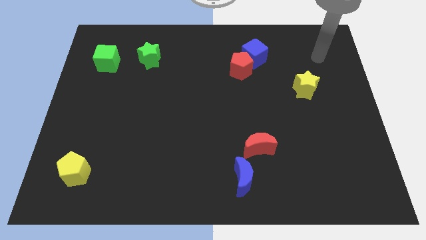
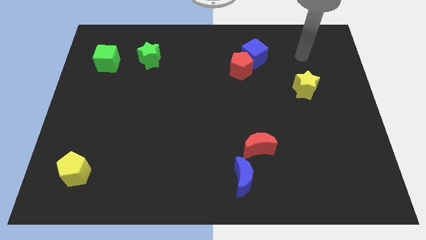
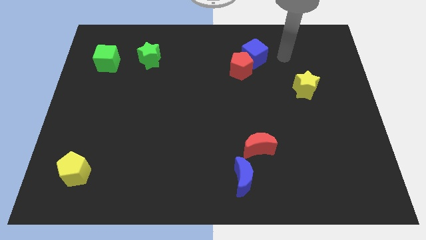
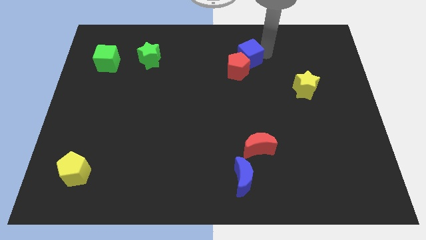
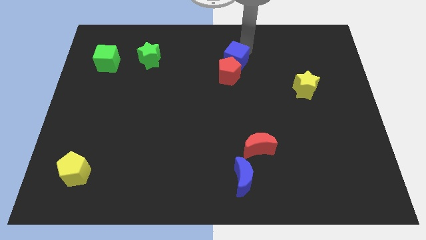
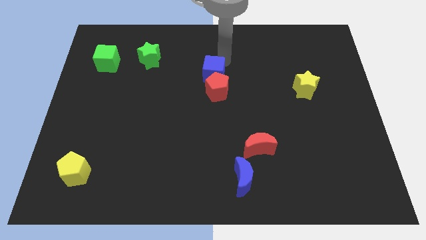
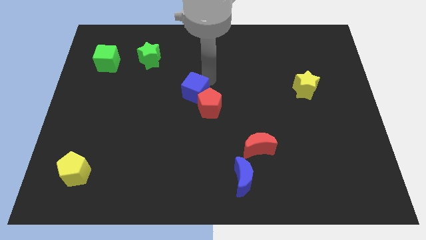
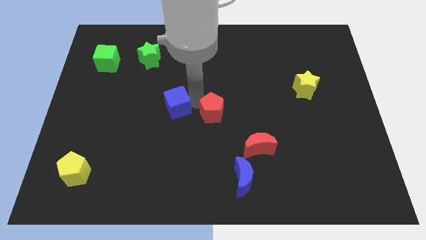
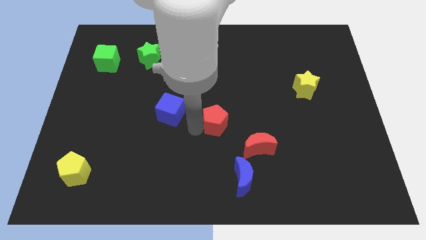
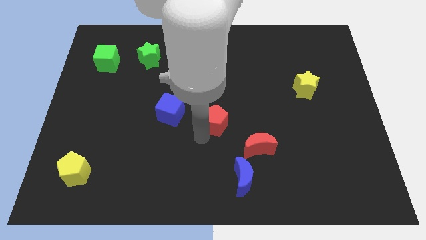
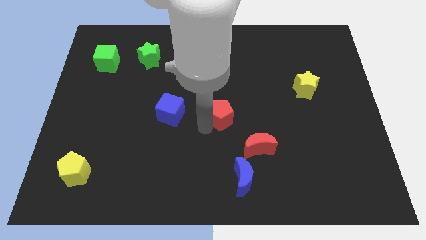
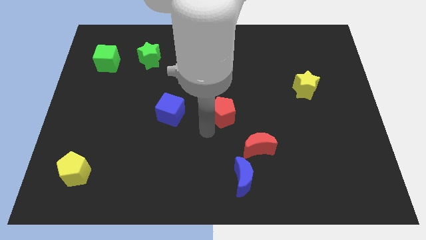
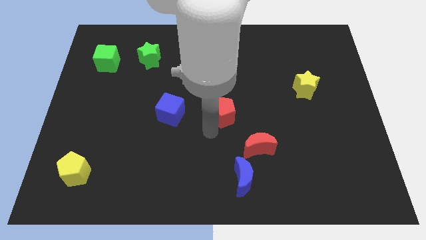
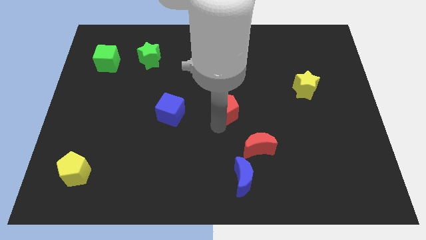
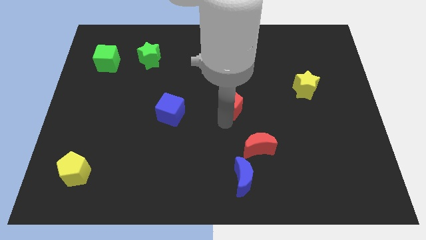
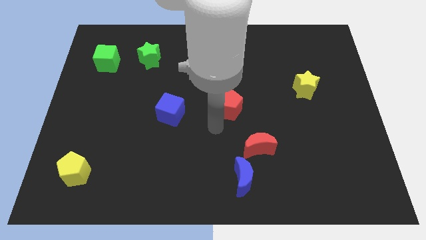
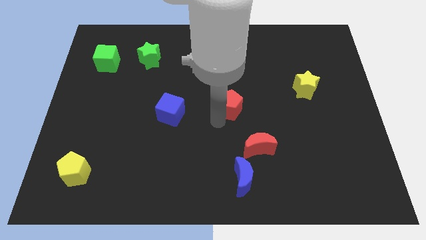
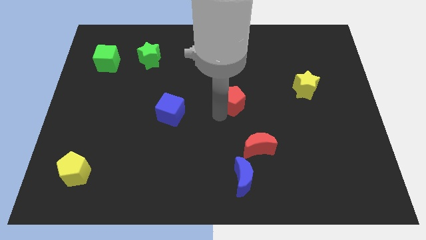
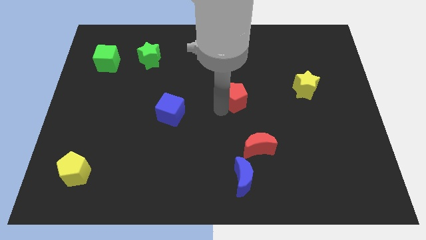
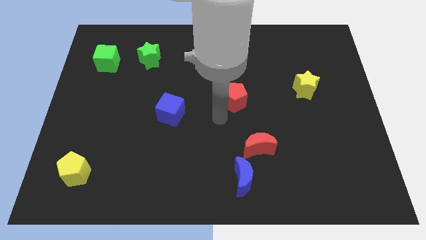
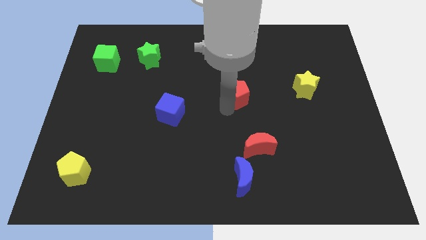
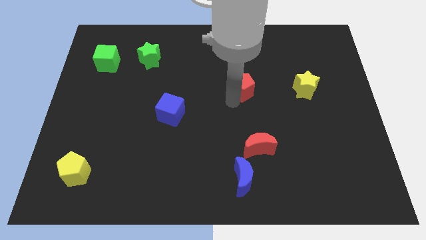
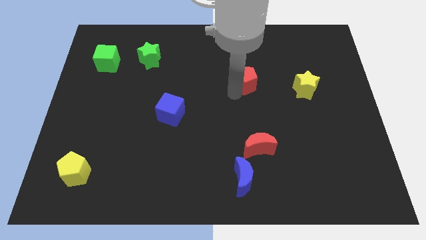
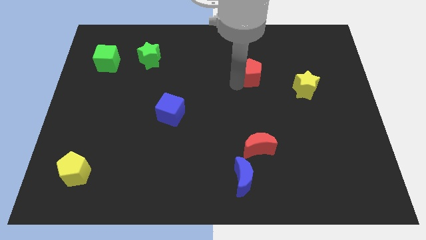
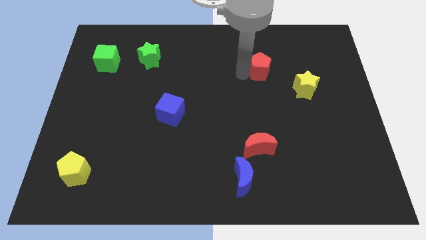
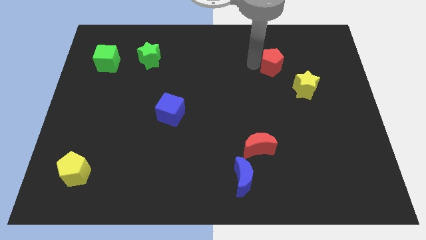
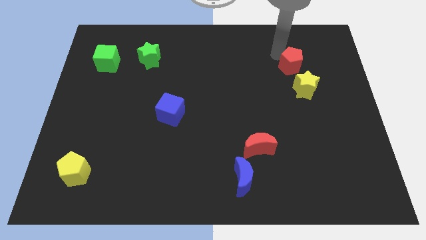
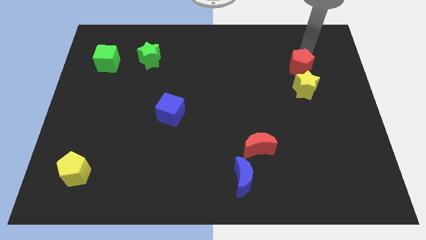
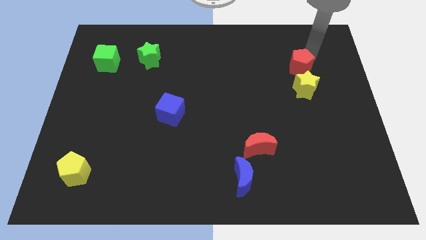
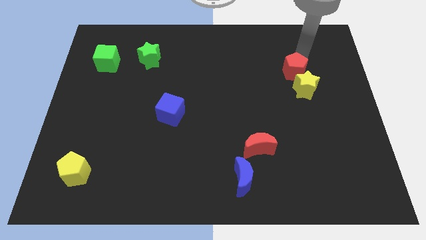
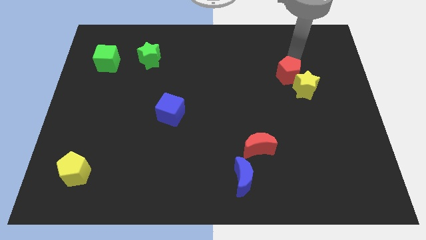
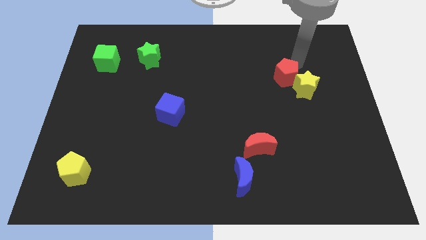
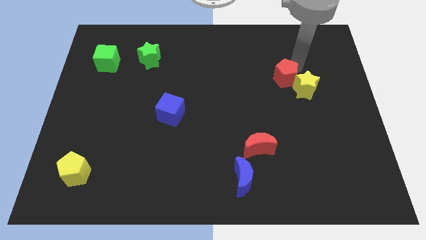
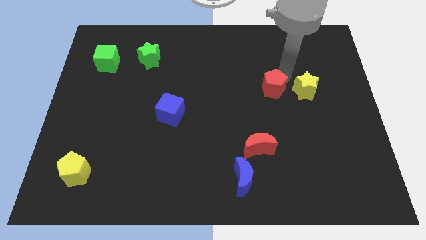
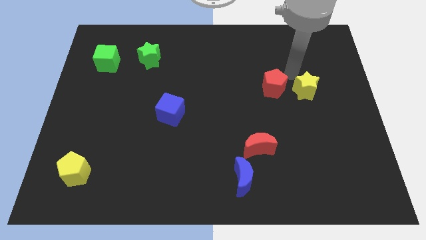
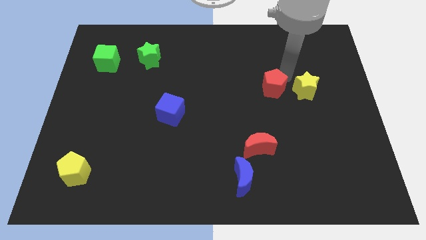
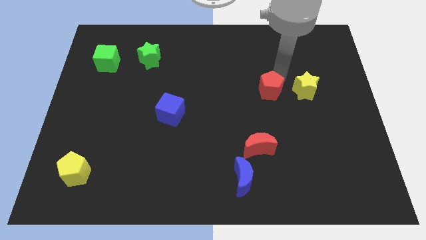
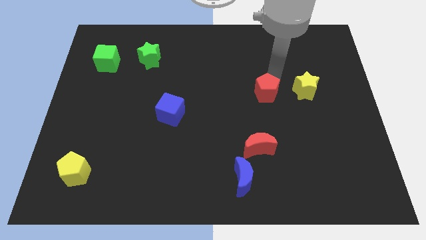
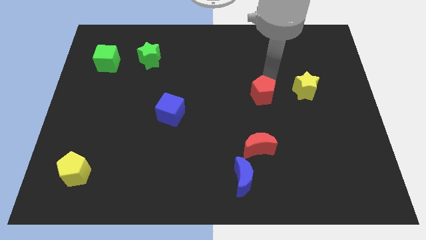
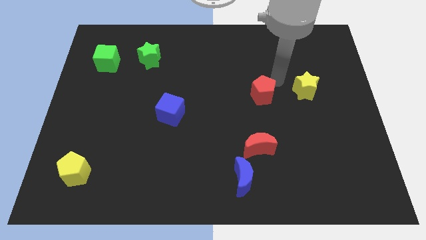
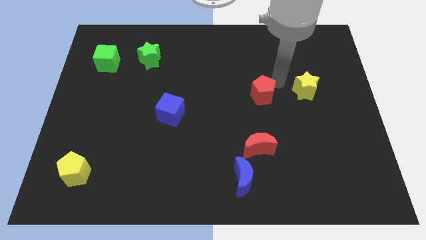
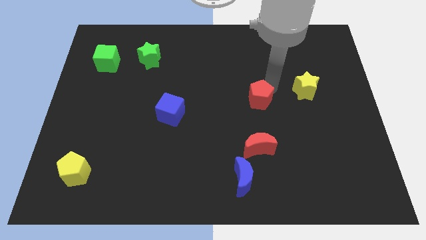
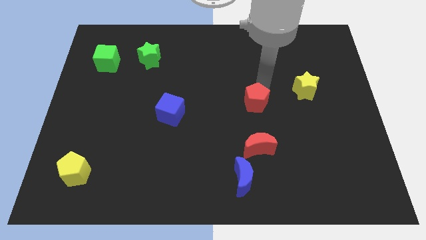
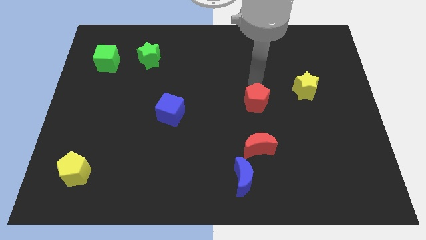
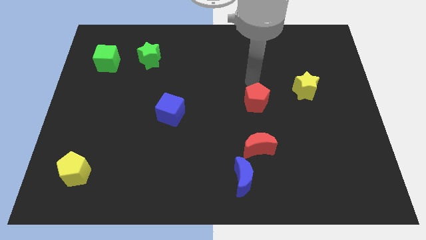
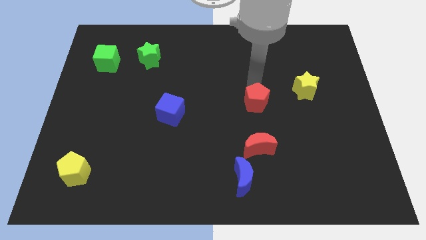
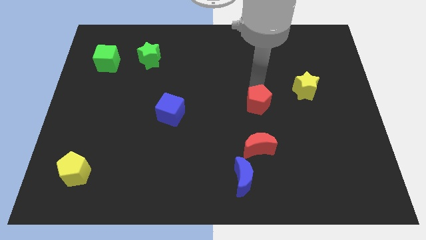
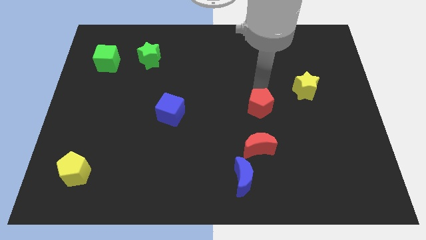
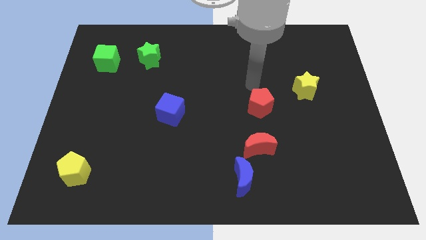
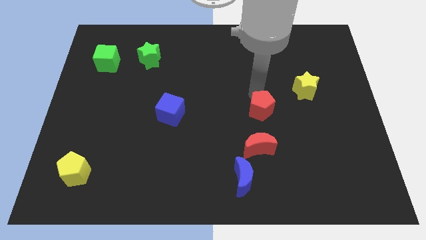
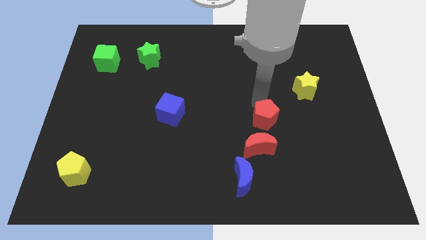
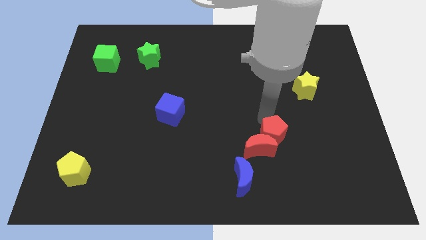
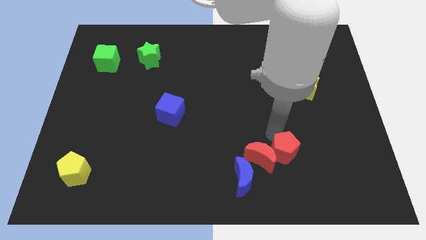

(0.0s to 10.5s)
push the red pentagon to the bottom right of the red moon

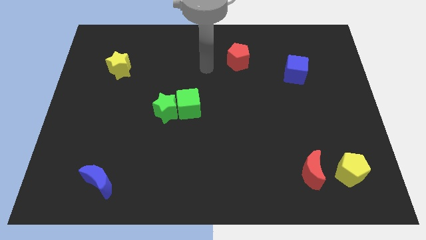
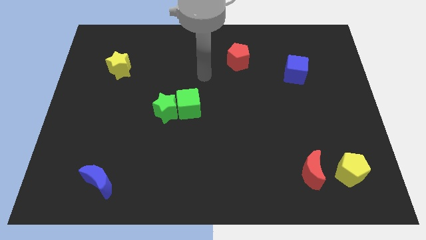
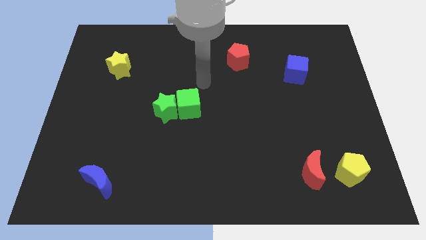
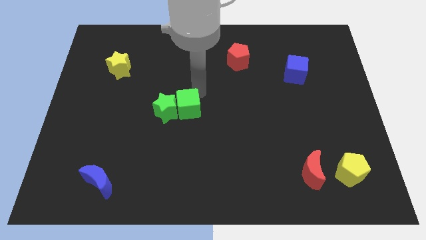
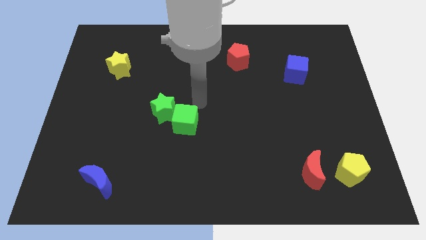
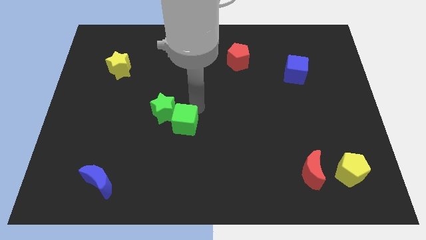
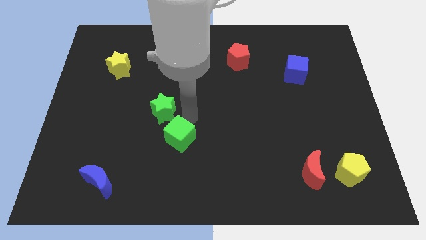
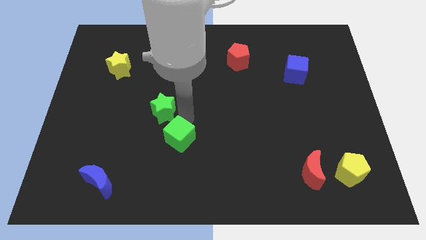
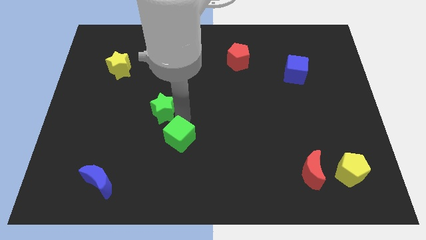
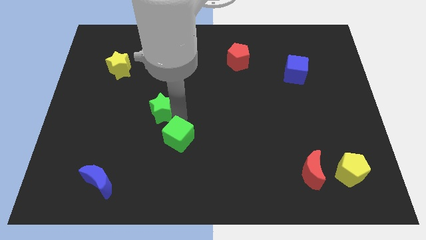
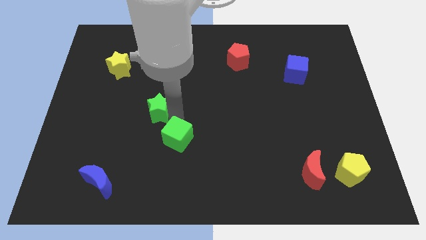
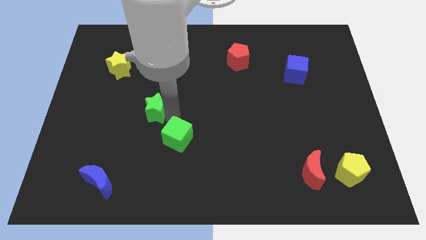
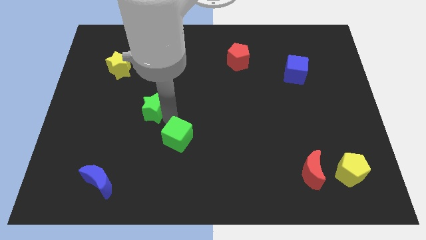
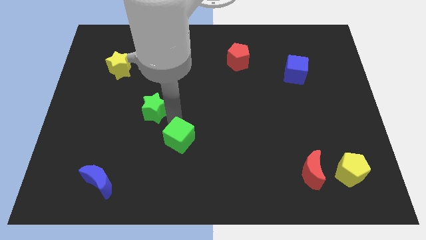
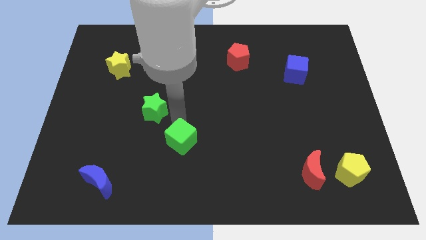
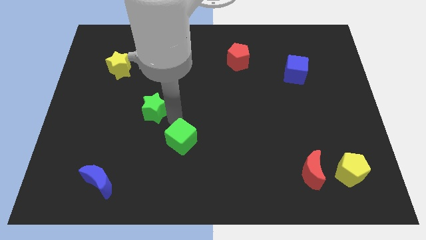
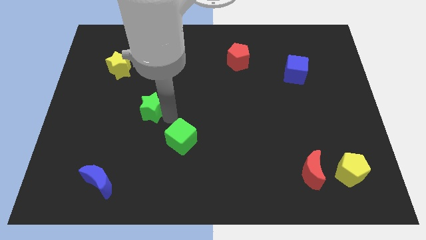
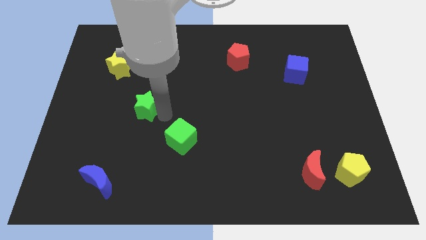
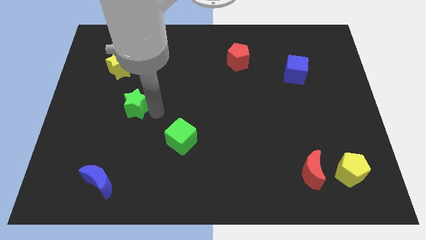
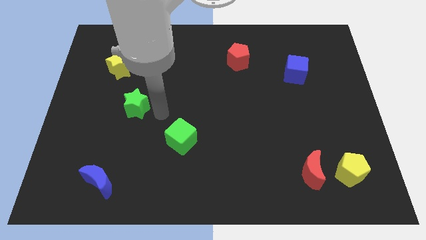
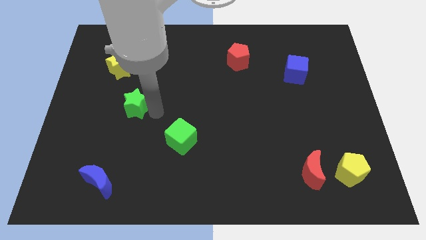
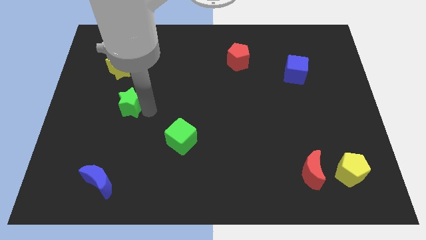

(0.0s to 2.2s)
move the green star to the bottom of the yellow star
